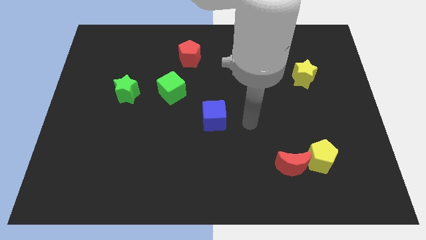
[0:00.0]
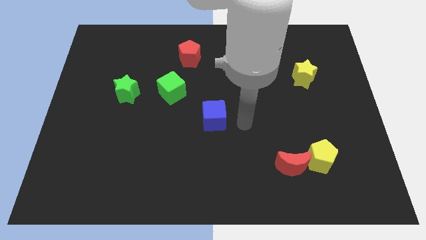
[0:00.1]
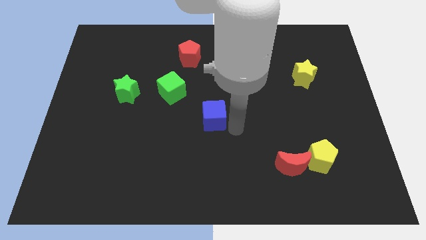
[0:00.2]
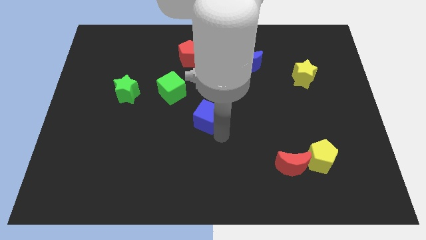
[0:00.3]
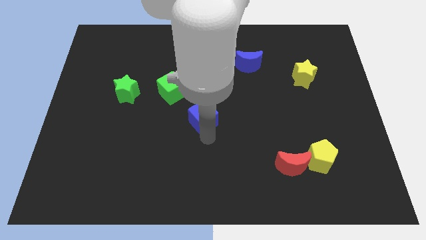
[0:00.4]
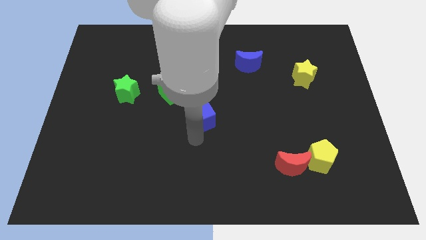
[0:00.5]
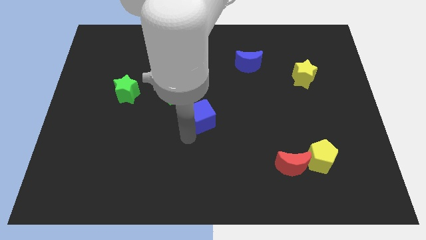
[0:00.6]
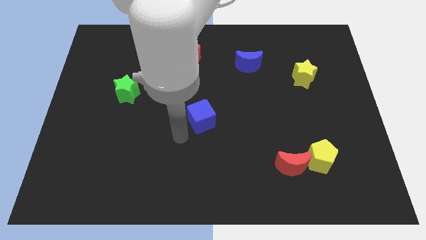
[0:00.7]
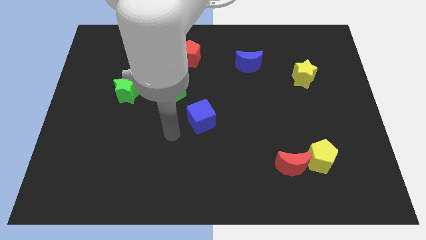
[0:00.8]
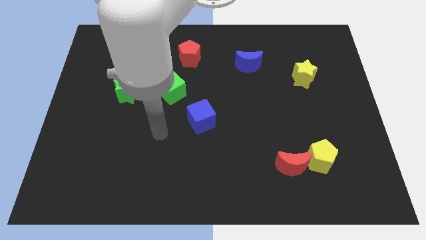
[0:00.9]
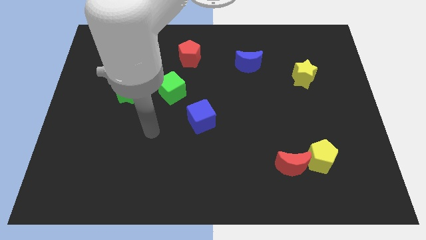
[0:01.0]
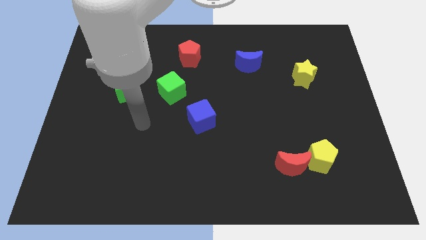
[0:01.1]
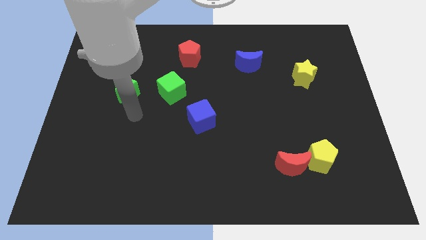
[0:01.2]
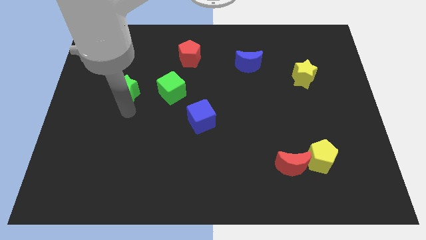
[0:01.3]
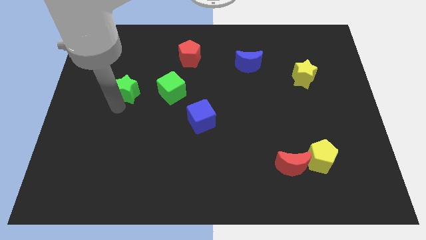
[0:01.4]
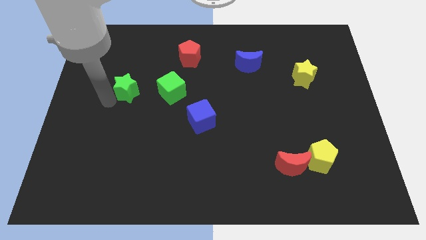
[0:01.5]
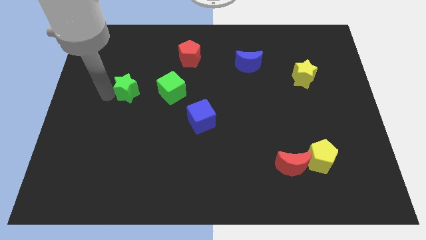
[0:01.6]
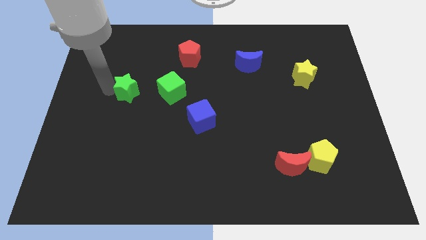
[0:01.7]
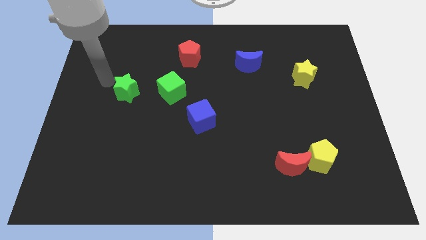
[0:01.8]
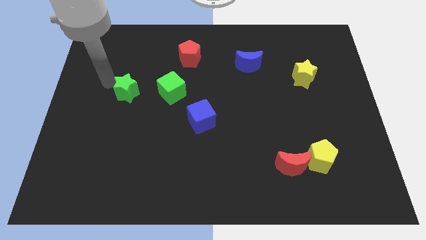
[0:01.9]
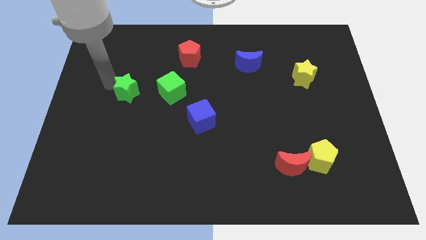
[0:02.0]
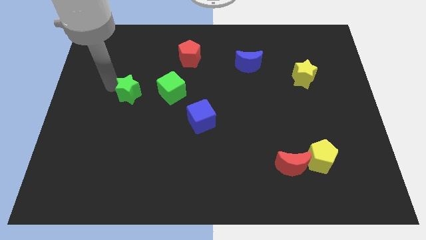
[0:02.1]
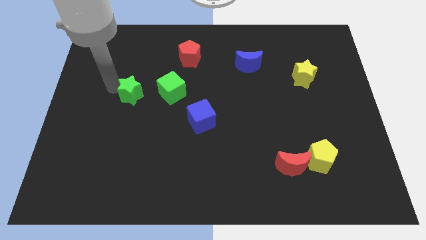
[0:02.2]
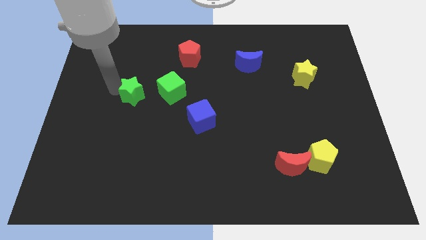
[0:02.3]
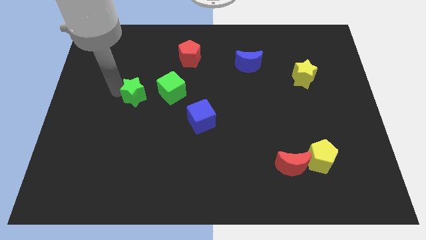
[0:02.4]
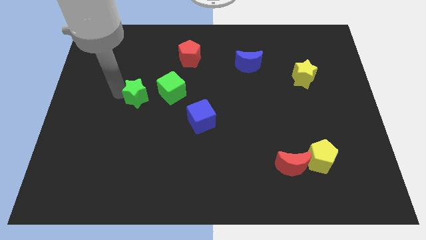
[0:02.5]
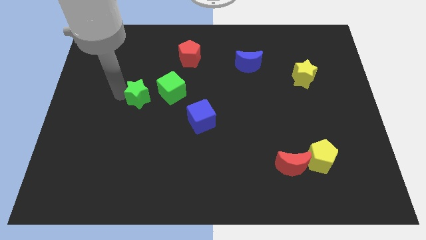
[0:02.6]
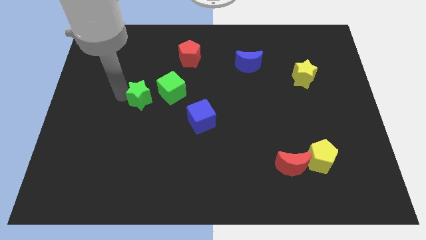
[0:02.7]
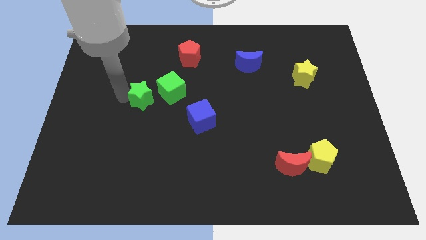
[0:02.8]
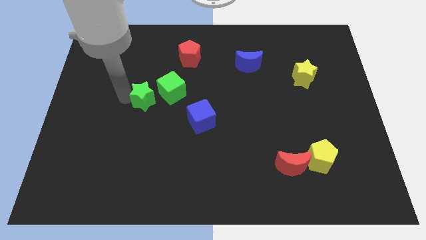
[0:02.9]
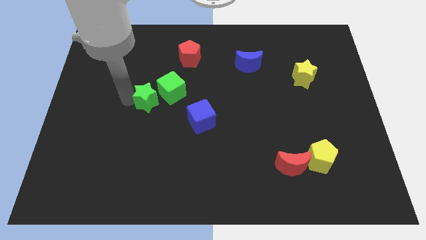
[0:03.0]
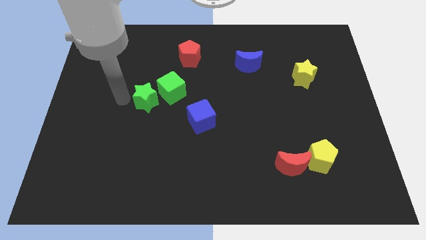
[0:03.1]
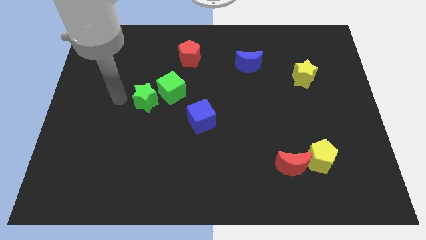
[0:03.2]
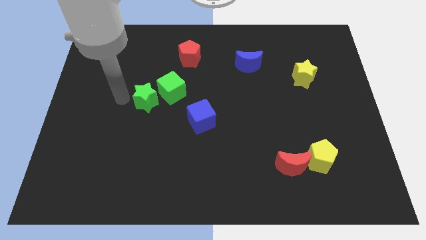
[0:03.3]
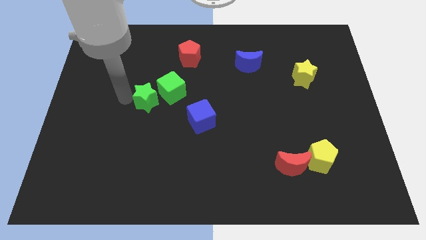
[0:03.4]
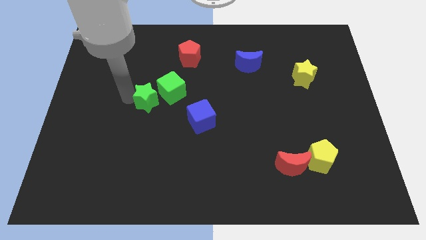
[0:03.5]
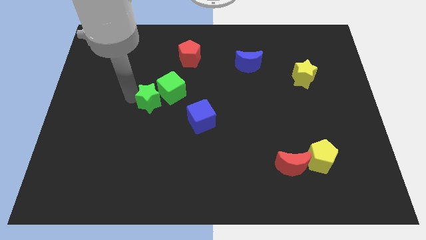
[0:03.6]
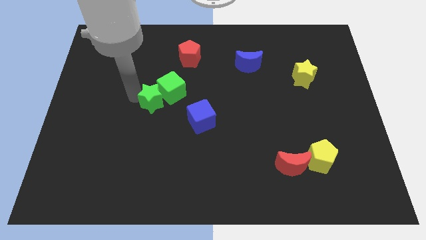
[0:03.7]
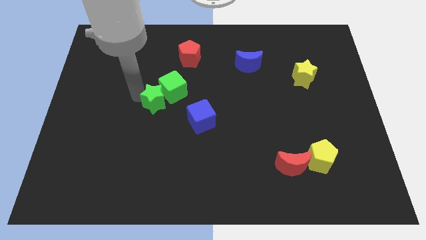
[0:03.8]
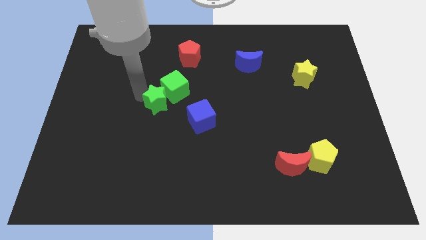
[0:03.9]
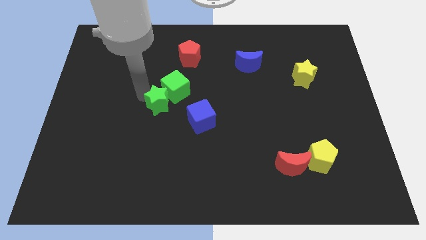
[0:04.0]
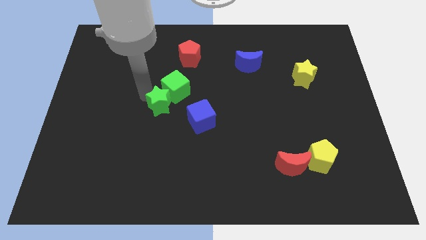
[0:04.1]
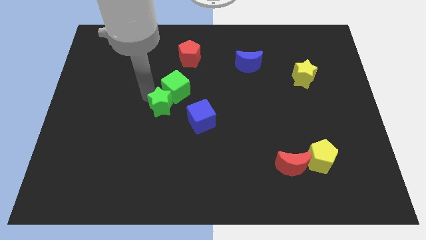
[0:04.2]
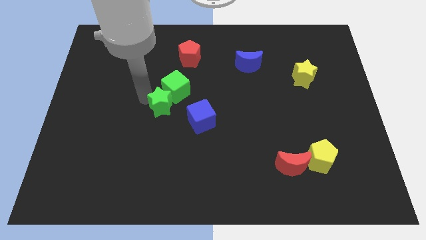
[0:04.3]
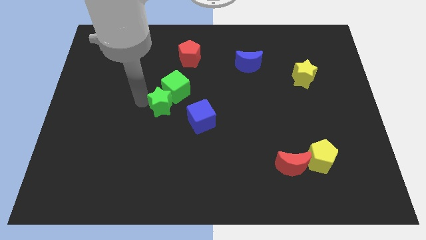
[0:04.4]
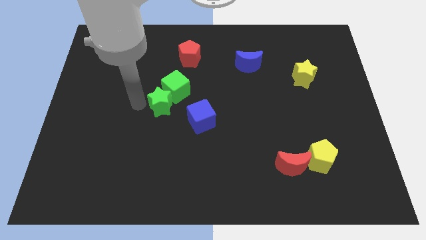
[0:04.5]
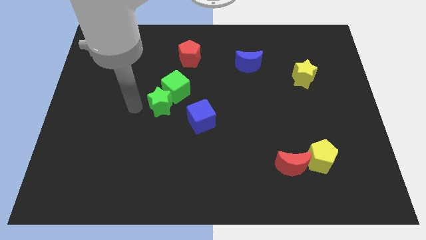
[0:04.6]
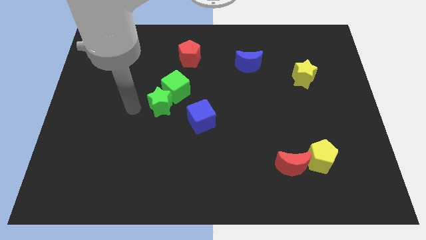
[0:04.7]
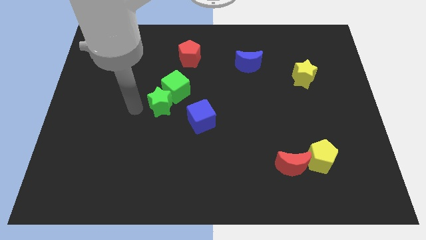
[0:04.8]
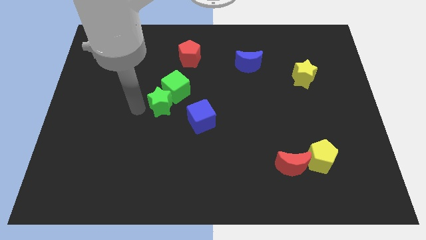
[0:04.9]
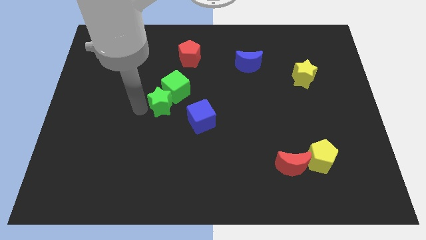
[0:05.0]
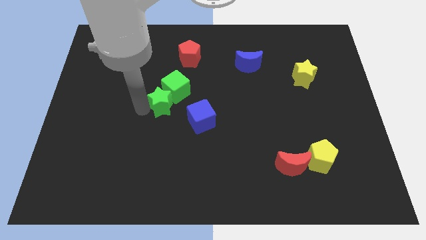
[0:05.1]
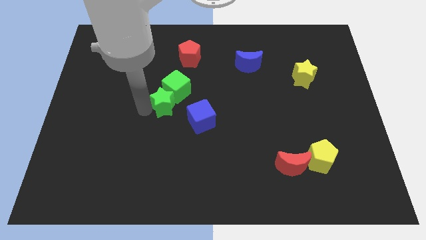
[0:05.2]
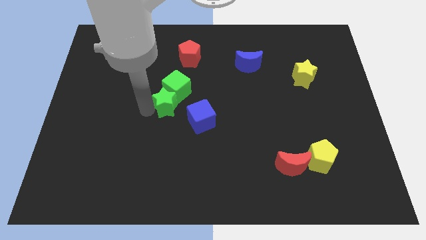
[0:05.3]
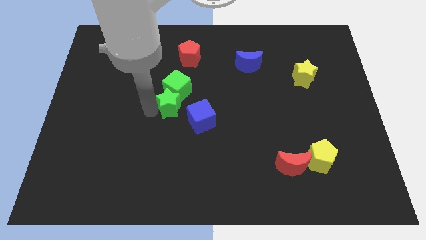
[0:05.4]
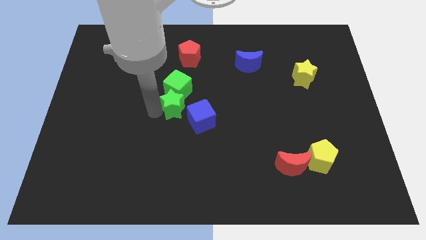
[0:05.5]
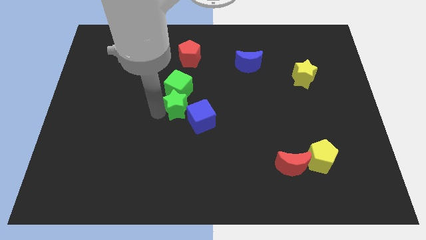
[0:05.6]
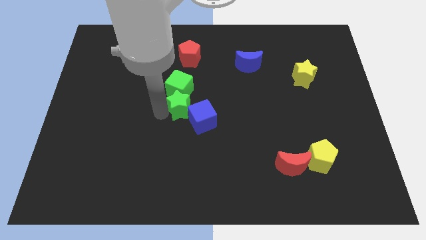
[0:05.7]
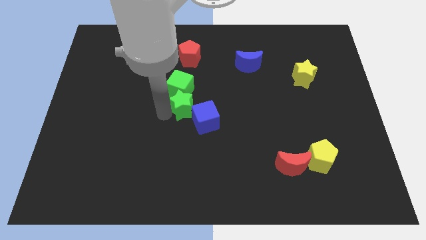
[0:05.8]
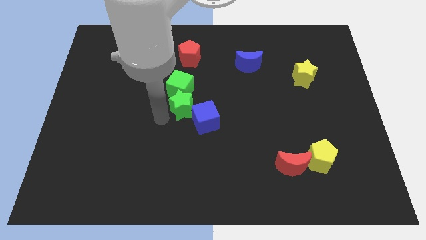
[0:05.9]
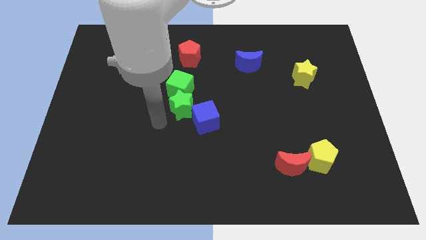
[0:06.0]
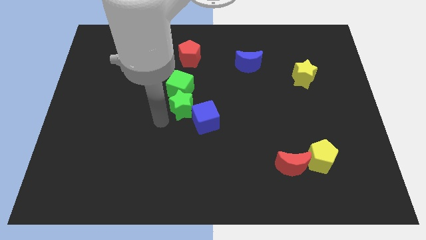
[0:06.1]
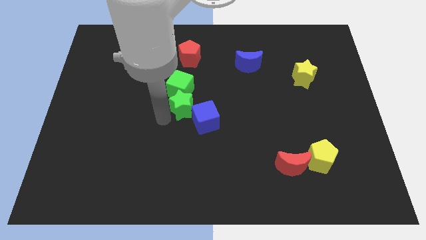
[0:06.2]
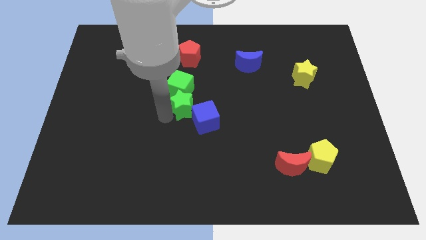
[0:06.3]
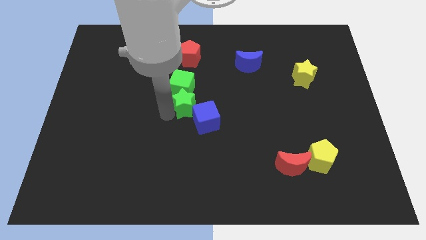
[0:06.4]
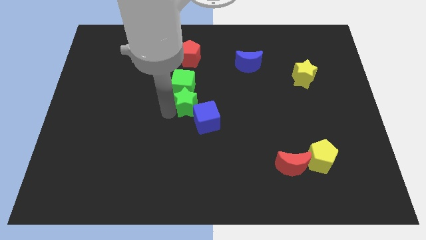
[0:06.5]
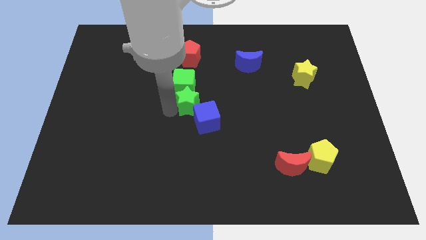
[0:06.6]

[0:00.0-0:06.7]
put the green star to the top side of the blue cube

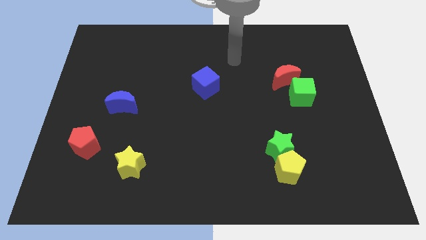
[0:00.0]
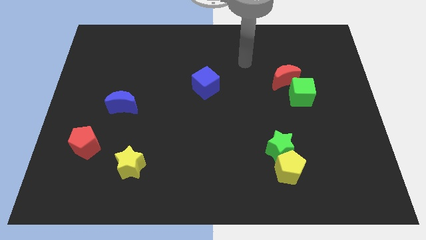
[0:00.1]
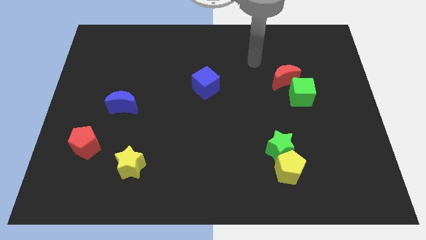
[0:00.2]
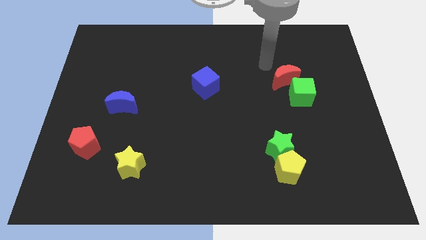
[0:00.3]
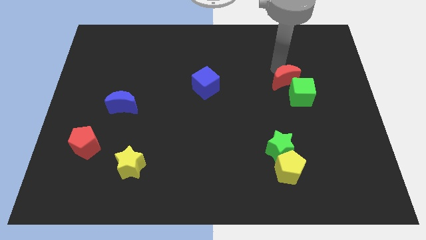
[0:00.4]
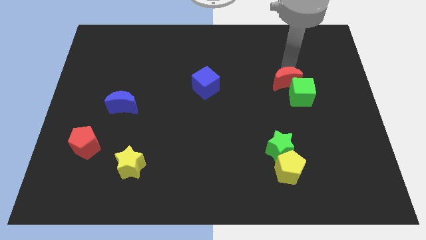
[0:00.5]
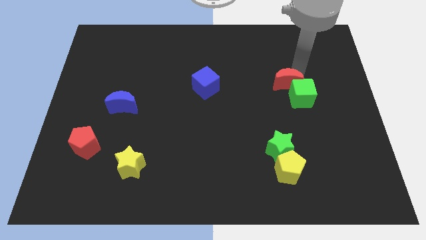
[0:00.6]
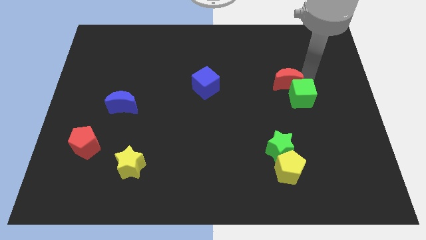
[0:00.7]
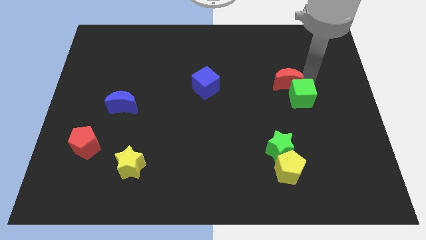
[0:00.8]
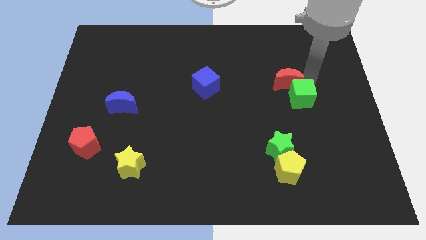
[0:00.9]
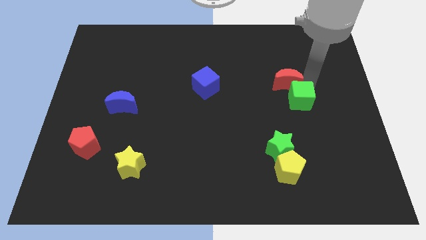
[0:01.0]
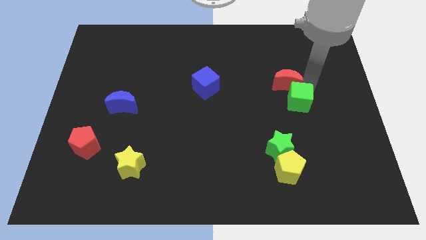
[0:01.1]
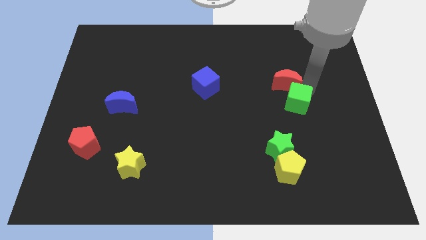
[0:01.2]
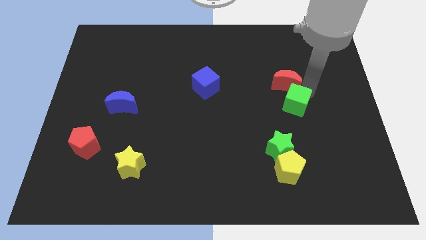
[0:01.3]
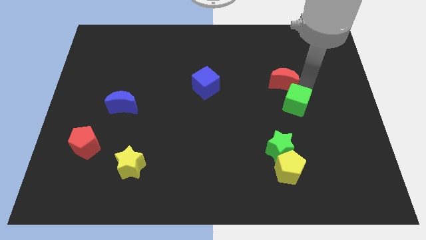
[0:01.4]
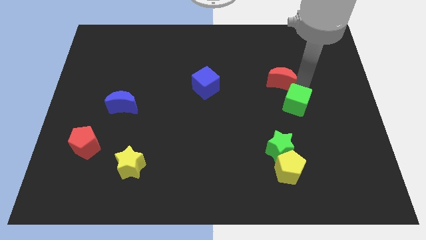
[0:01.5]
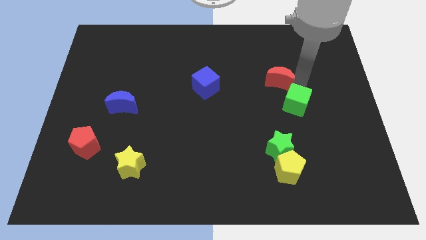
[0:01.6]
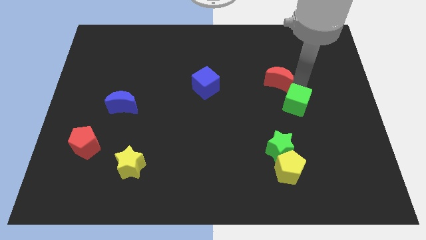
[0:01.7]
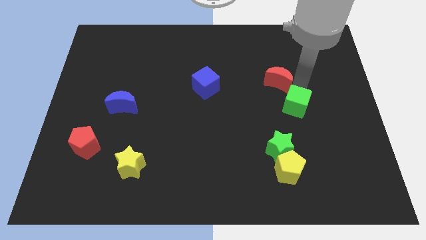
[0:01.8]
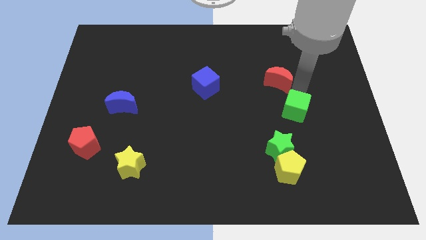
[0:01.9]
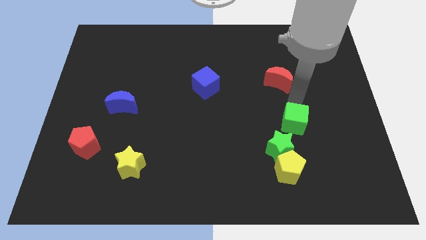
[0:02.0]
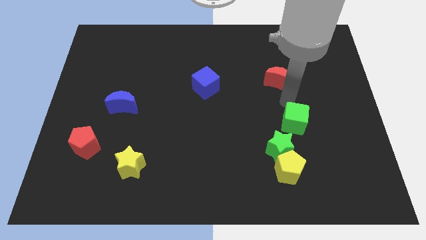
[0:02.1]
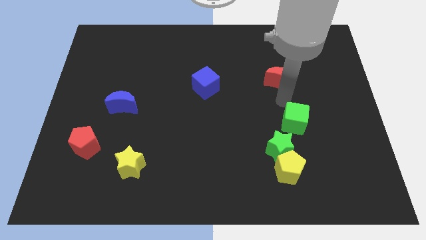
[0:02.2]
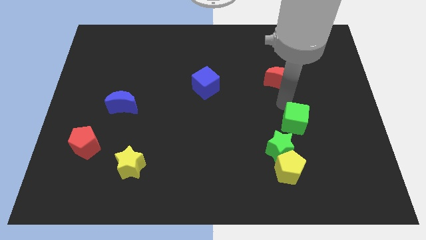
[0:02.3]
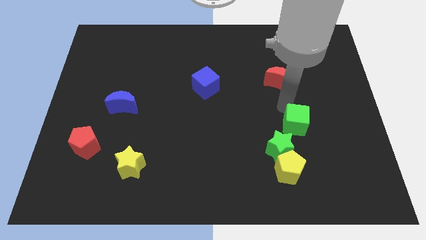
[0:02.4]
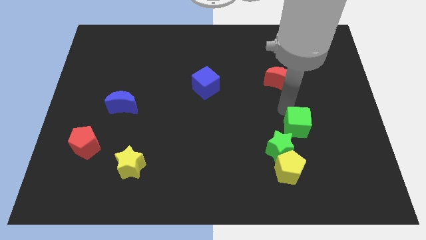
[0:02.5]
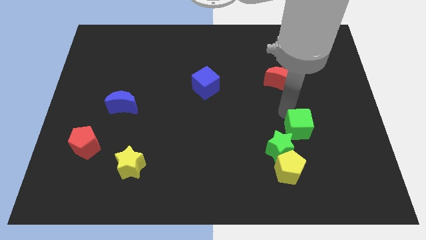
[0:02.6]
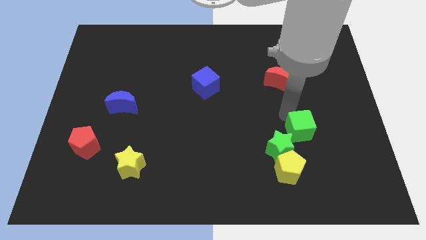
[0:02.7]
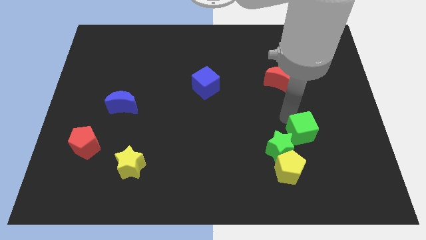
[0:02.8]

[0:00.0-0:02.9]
slide the green cube to the top right side of the yellow pentagon
